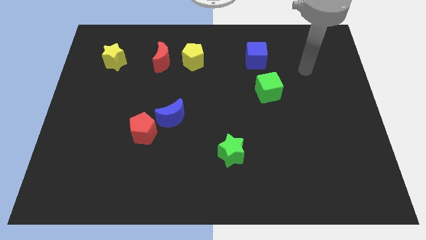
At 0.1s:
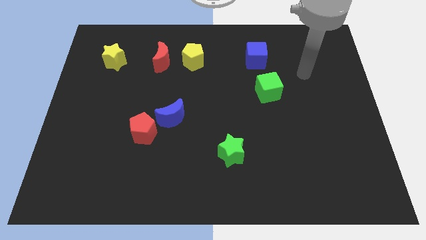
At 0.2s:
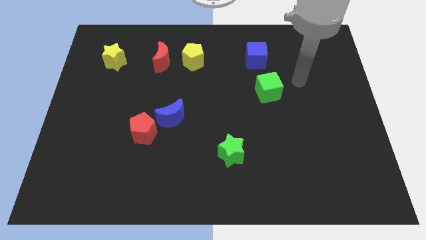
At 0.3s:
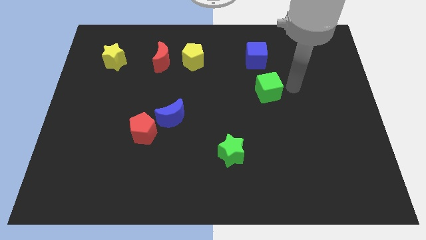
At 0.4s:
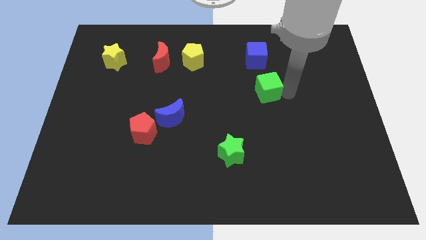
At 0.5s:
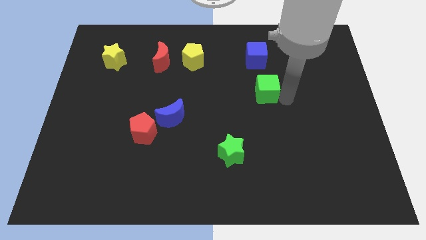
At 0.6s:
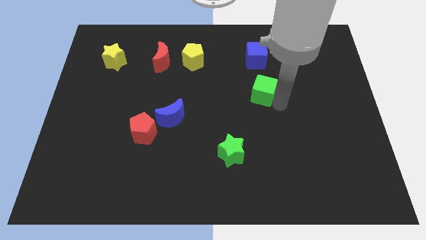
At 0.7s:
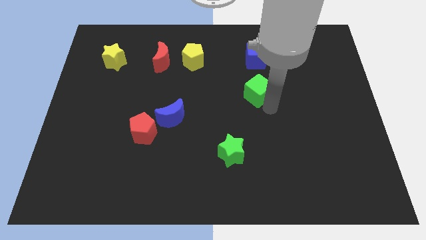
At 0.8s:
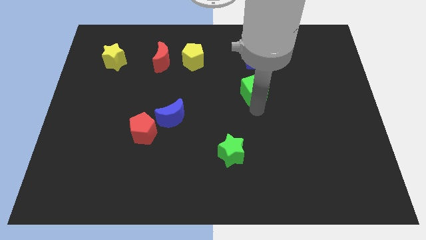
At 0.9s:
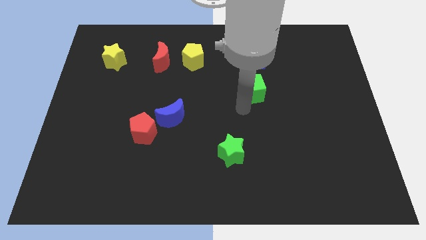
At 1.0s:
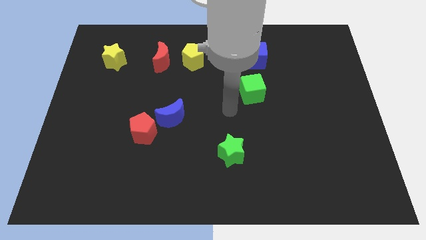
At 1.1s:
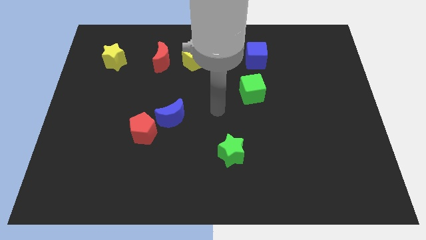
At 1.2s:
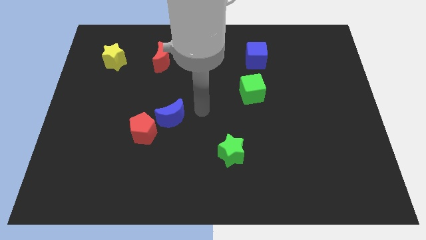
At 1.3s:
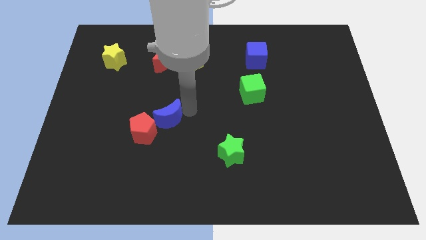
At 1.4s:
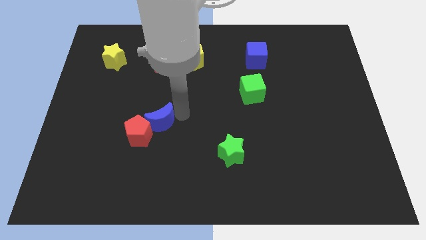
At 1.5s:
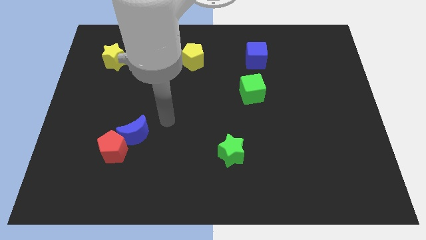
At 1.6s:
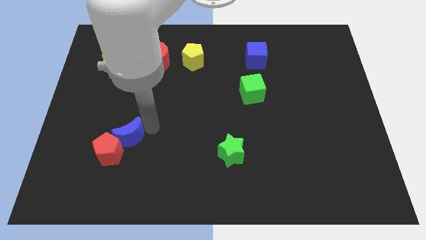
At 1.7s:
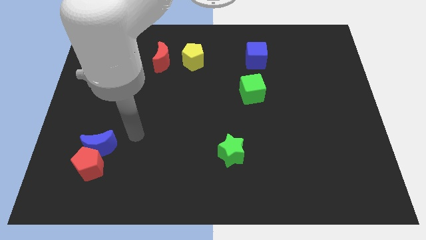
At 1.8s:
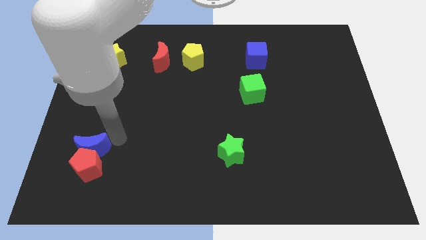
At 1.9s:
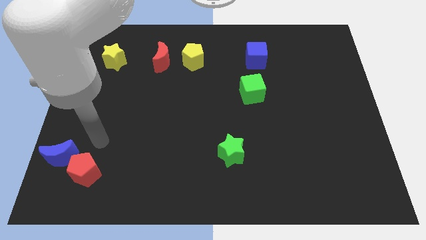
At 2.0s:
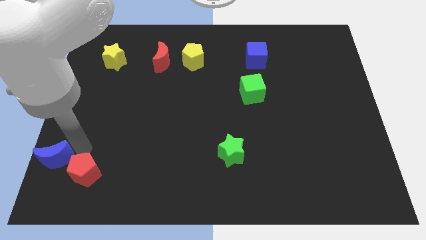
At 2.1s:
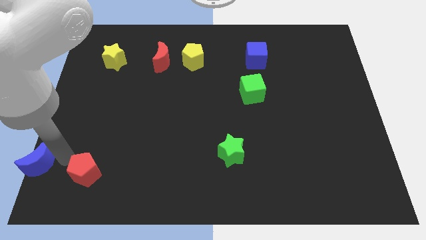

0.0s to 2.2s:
pull the red pentagon apart from the blue moon

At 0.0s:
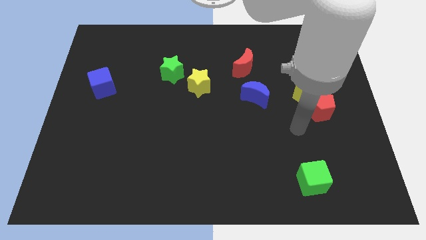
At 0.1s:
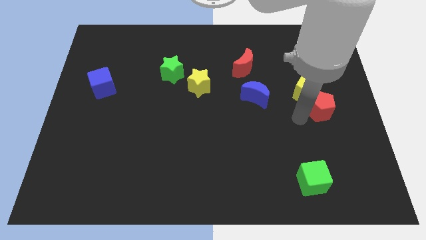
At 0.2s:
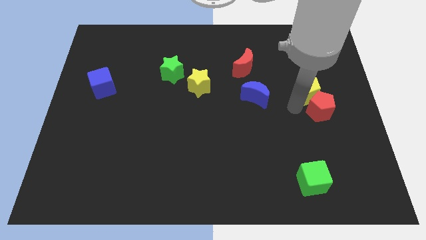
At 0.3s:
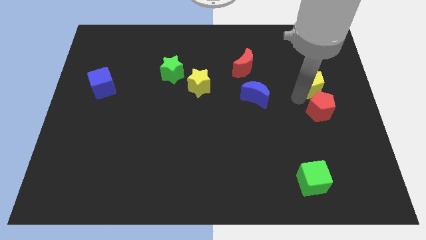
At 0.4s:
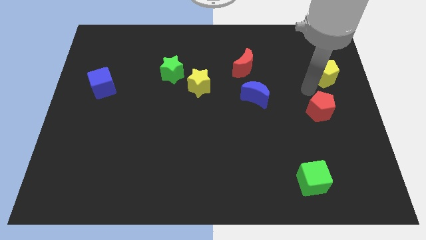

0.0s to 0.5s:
pull the red pentagon apart from the yellow pentagon

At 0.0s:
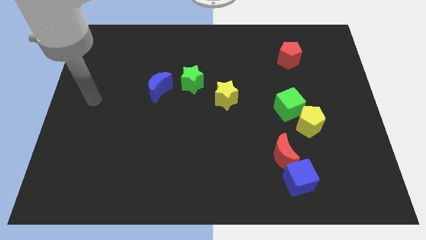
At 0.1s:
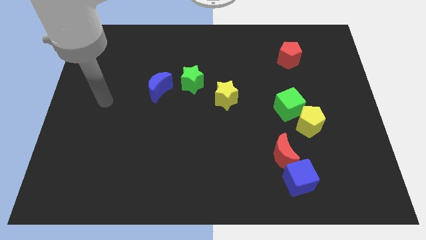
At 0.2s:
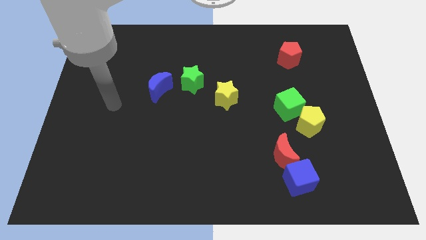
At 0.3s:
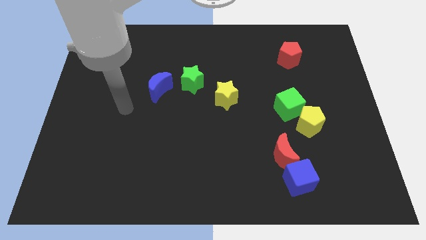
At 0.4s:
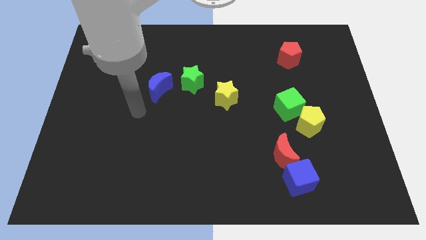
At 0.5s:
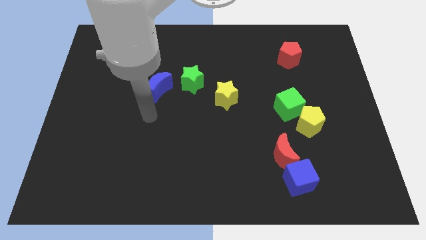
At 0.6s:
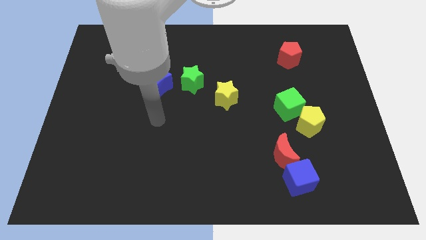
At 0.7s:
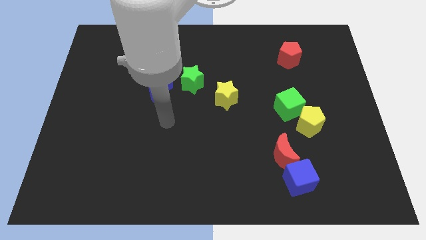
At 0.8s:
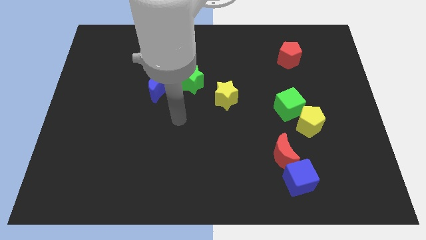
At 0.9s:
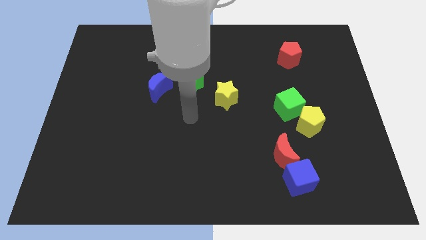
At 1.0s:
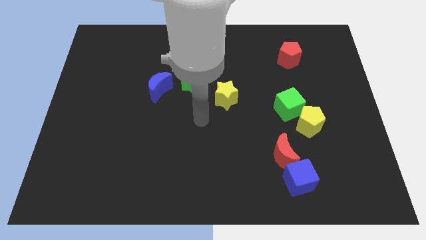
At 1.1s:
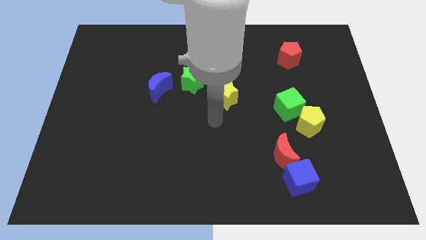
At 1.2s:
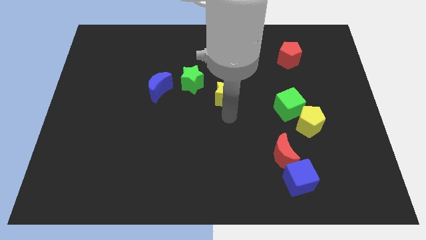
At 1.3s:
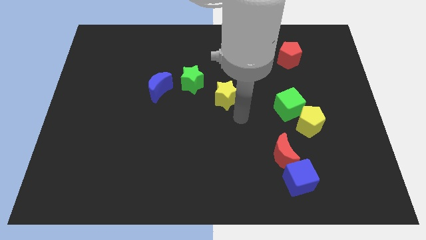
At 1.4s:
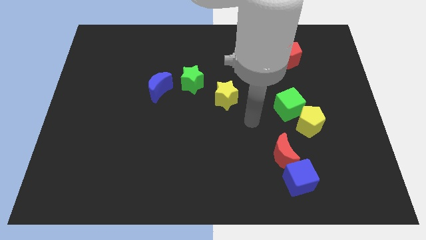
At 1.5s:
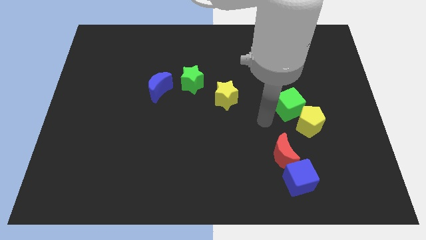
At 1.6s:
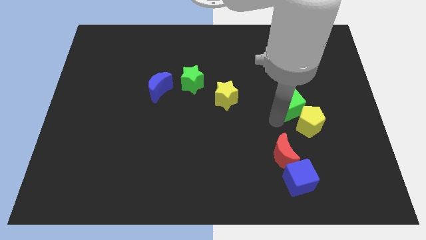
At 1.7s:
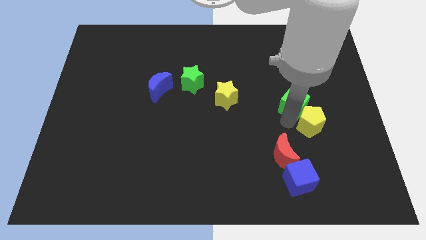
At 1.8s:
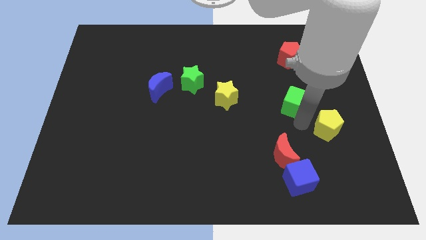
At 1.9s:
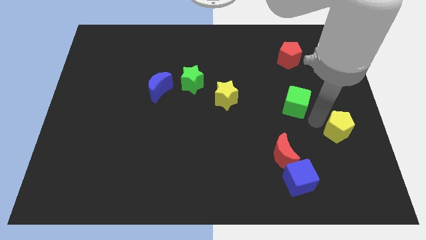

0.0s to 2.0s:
pull the green cube apart from the yellow pentagon

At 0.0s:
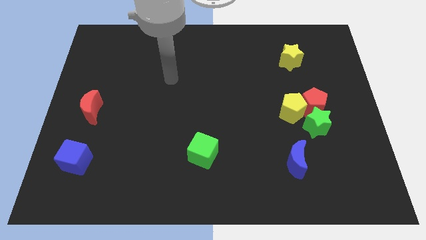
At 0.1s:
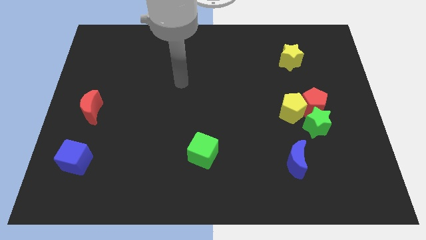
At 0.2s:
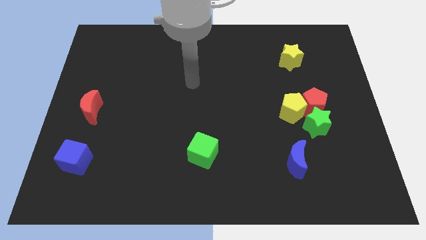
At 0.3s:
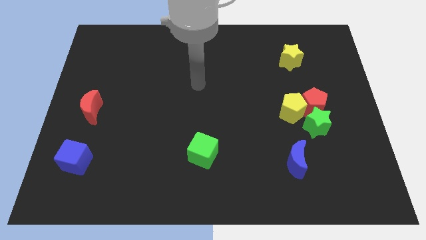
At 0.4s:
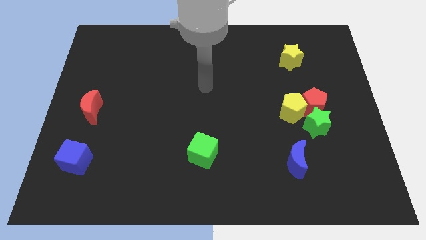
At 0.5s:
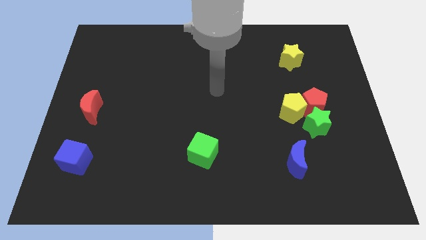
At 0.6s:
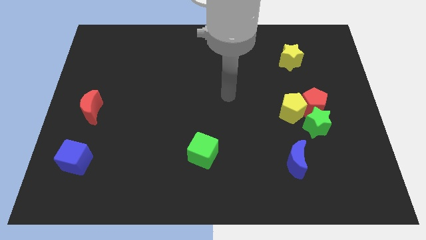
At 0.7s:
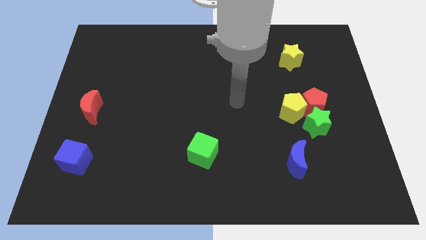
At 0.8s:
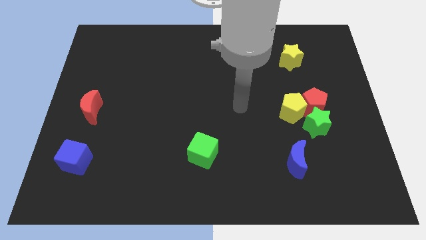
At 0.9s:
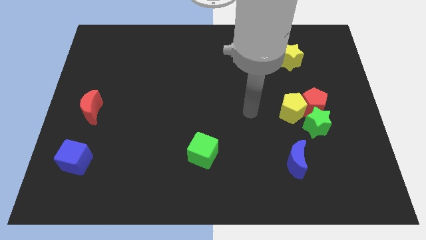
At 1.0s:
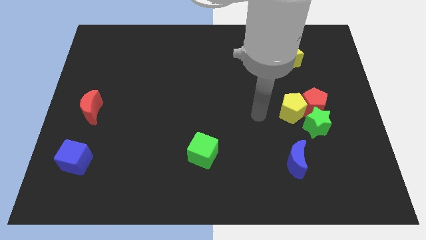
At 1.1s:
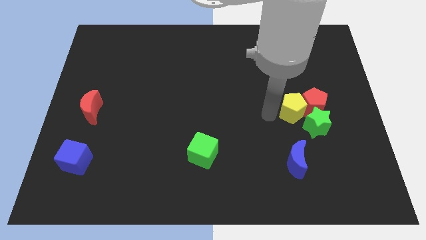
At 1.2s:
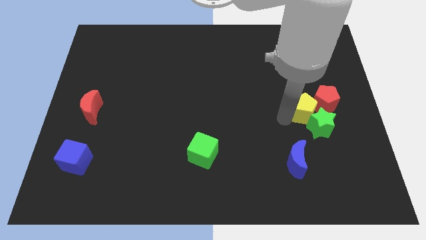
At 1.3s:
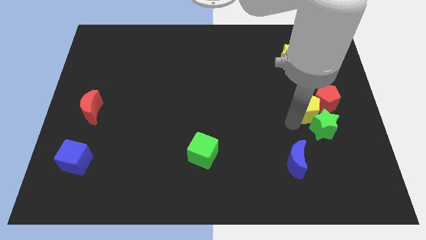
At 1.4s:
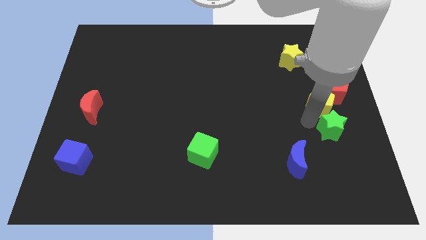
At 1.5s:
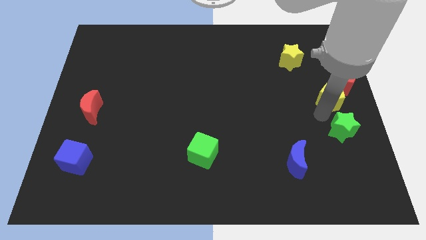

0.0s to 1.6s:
separate the red pentagon from the yellow pentagon and green star

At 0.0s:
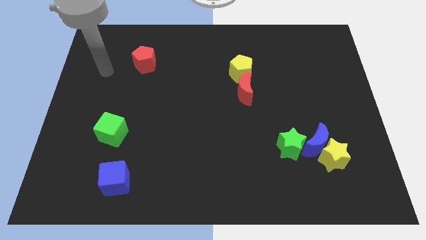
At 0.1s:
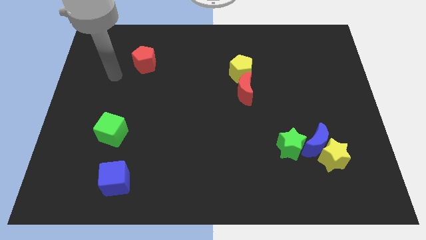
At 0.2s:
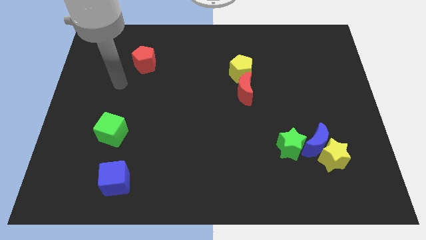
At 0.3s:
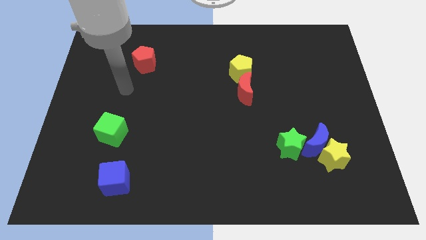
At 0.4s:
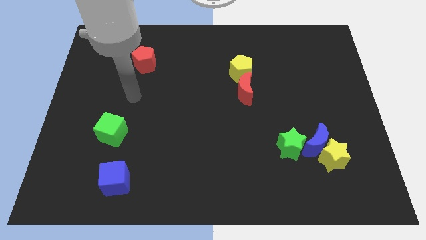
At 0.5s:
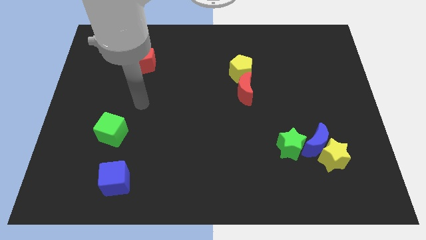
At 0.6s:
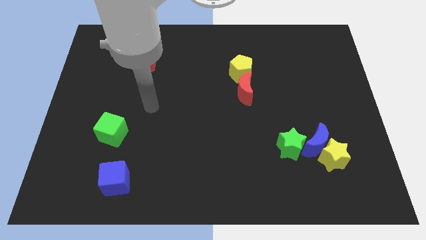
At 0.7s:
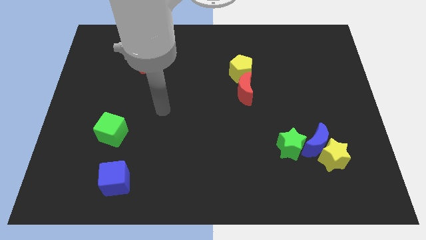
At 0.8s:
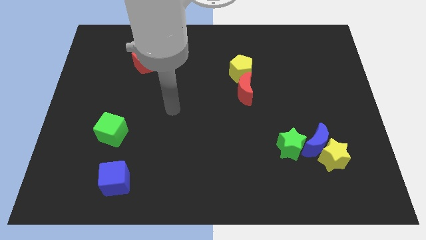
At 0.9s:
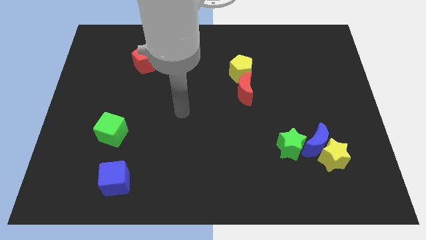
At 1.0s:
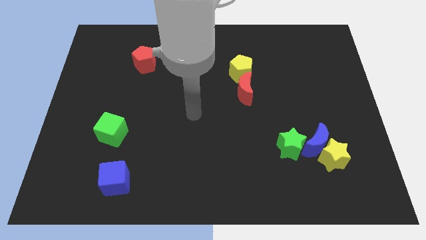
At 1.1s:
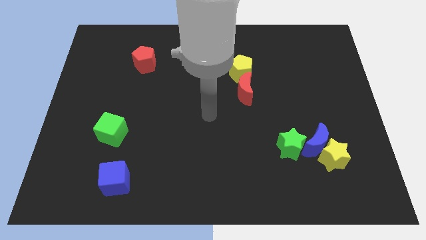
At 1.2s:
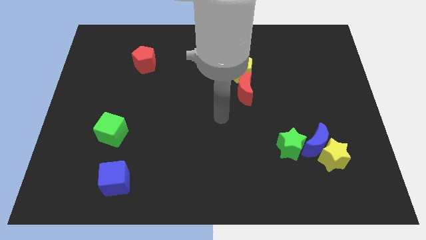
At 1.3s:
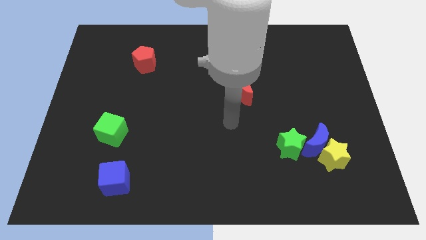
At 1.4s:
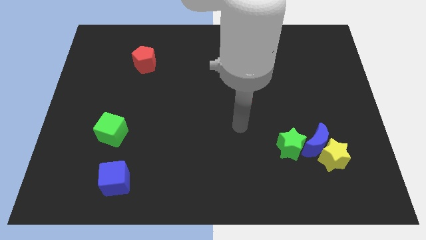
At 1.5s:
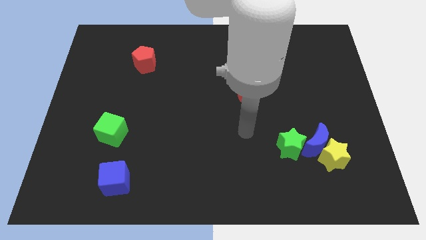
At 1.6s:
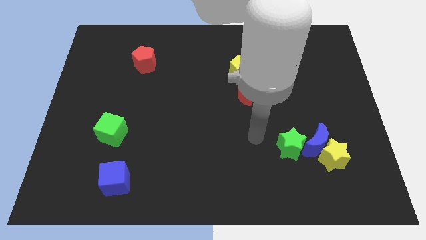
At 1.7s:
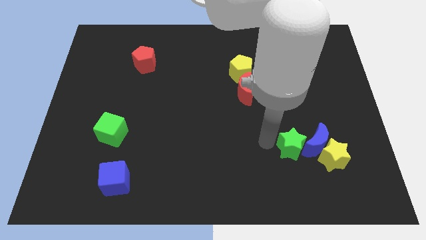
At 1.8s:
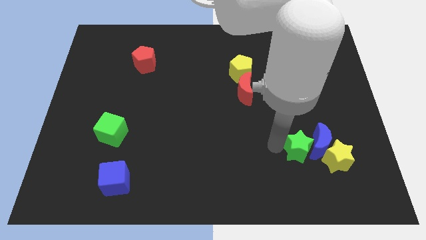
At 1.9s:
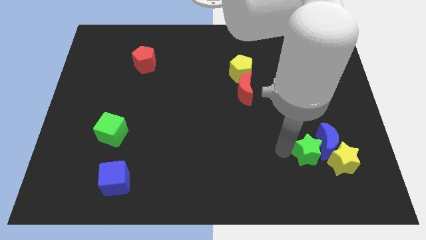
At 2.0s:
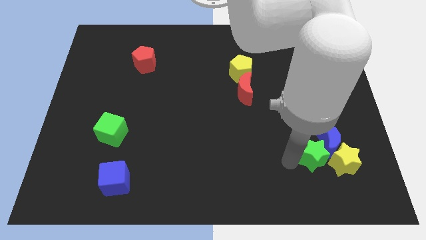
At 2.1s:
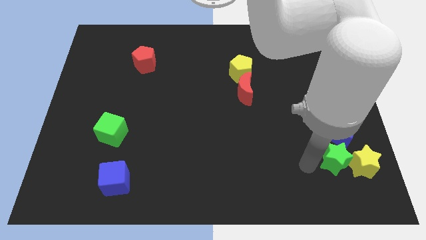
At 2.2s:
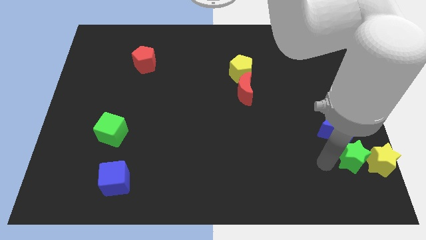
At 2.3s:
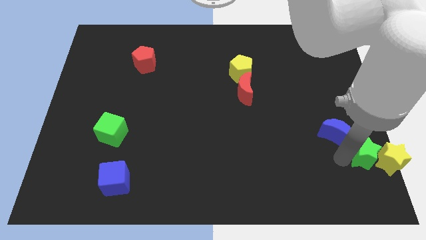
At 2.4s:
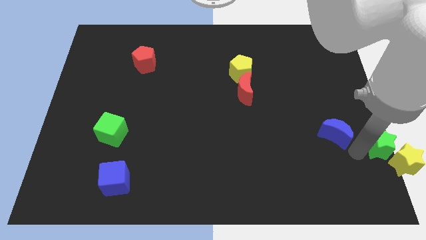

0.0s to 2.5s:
separate the blue moon from the yellow star and green star

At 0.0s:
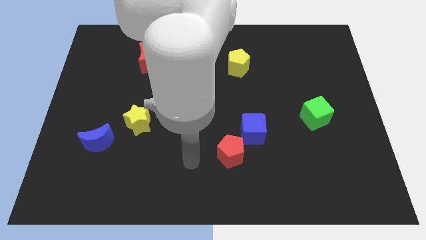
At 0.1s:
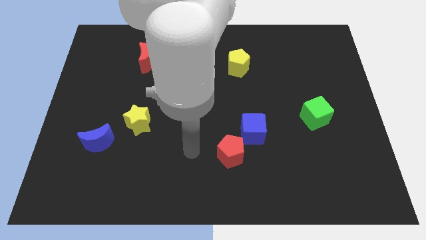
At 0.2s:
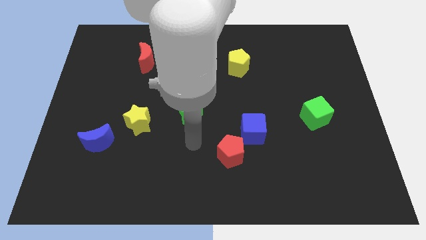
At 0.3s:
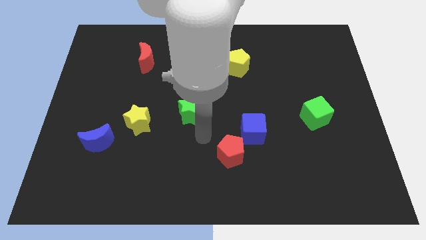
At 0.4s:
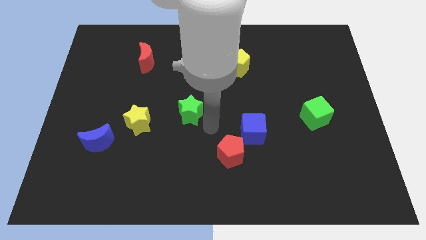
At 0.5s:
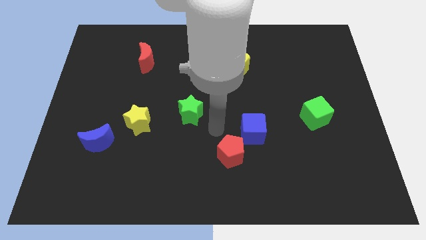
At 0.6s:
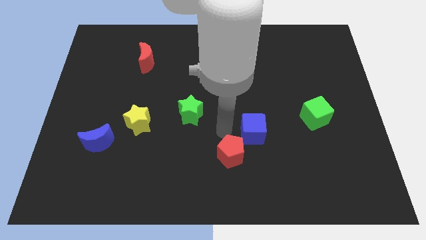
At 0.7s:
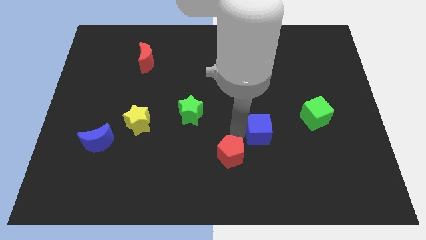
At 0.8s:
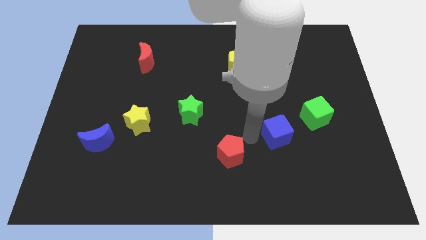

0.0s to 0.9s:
move the red pentagon away from the blue cube
